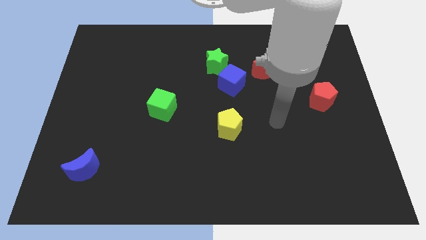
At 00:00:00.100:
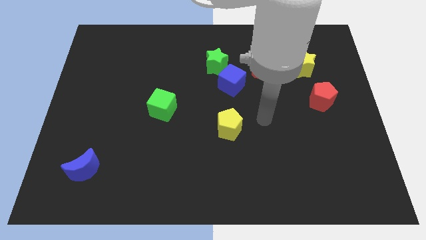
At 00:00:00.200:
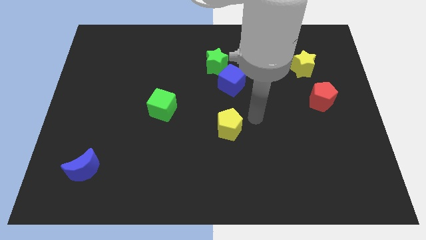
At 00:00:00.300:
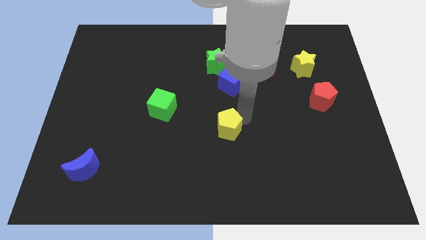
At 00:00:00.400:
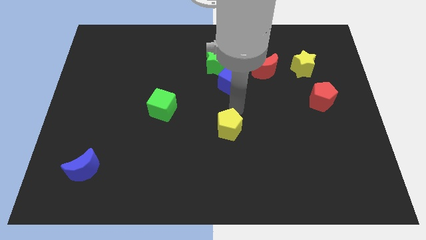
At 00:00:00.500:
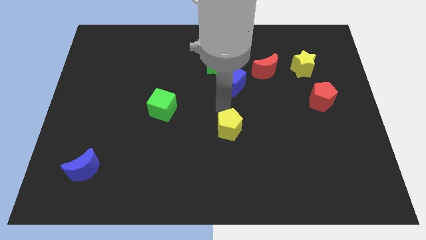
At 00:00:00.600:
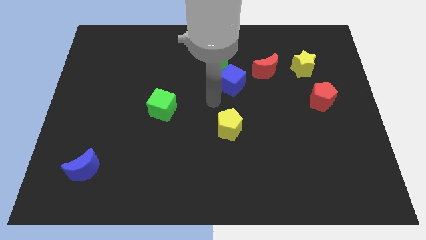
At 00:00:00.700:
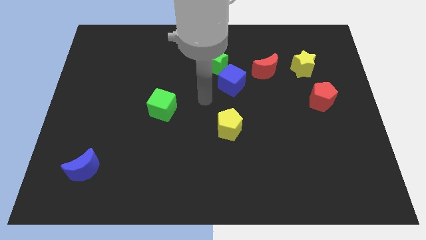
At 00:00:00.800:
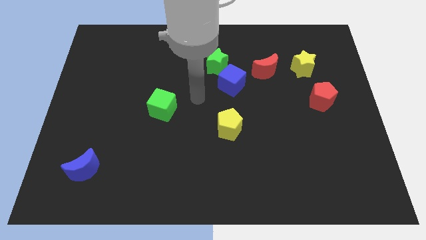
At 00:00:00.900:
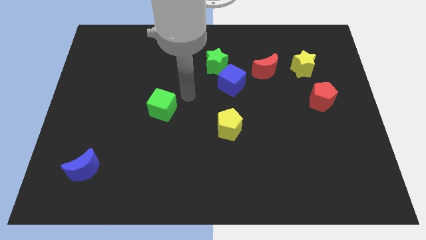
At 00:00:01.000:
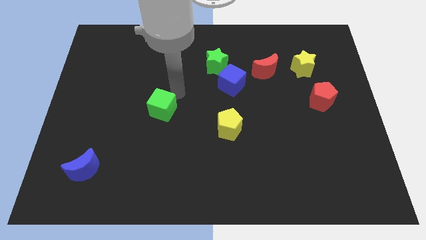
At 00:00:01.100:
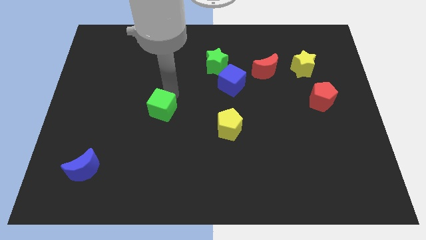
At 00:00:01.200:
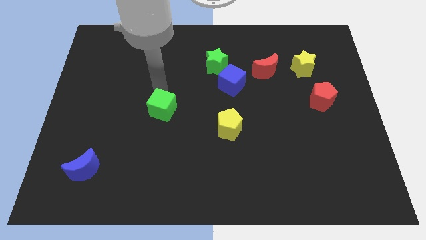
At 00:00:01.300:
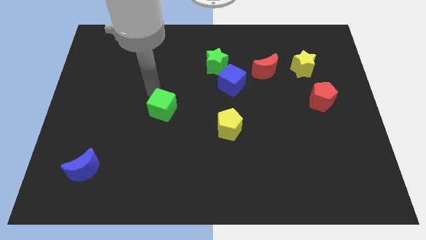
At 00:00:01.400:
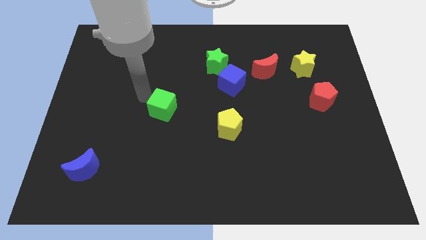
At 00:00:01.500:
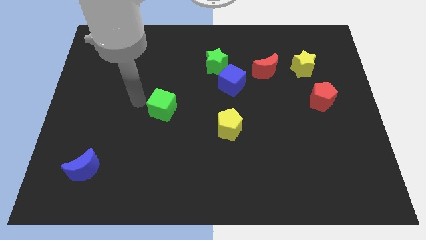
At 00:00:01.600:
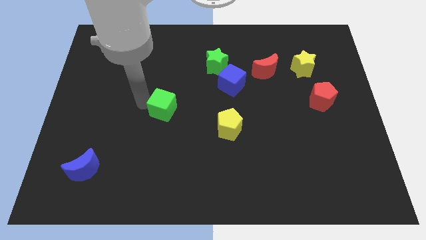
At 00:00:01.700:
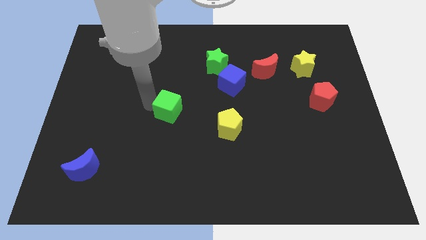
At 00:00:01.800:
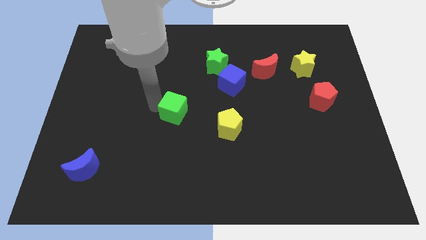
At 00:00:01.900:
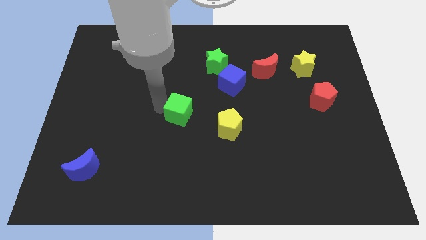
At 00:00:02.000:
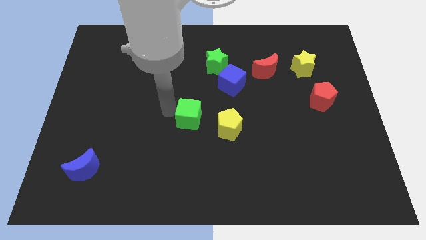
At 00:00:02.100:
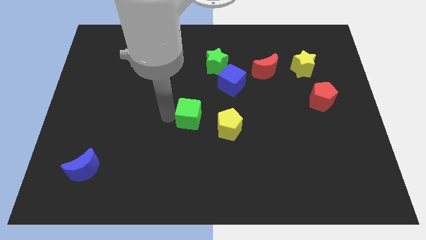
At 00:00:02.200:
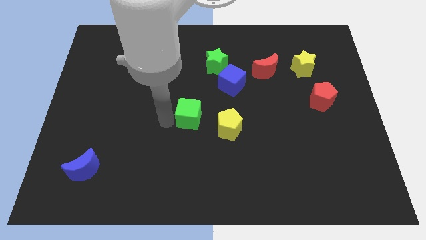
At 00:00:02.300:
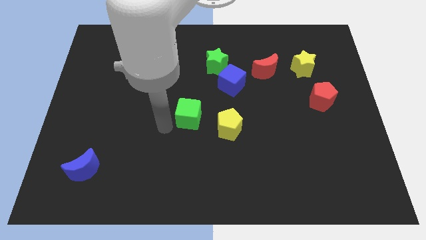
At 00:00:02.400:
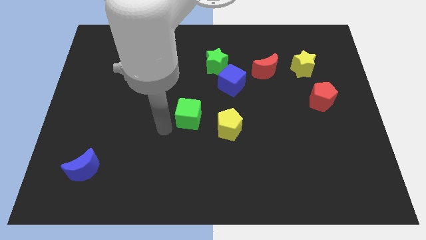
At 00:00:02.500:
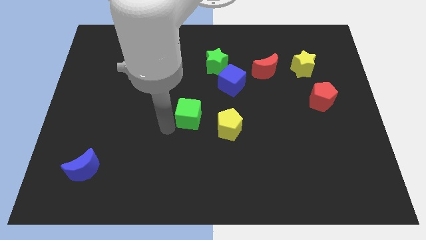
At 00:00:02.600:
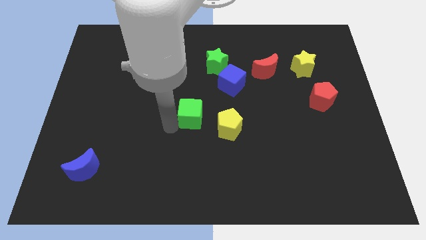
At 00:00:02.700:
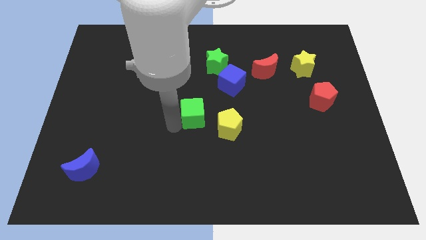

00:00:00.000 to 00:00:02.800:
move the green cube right slightly

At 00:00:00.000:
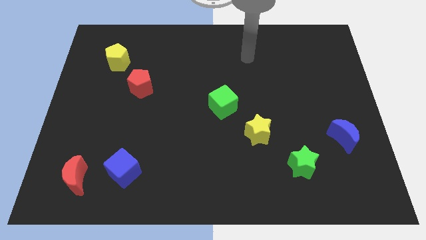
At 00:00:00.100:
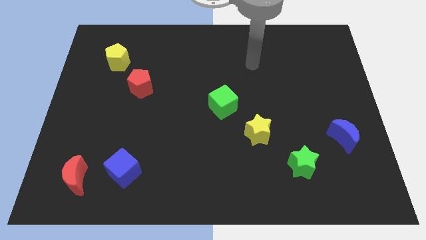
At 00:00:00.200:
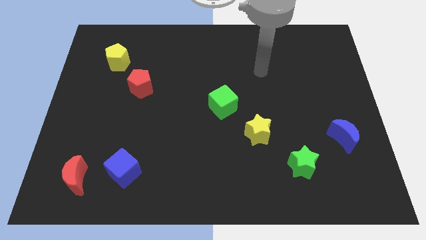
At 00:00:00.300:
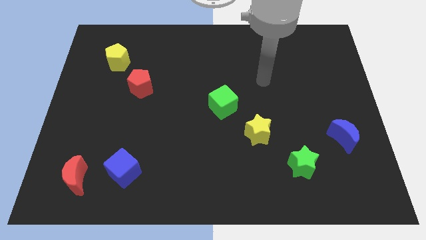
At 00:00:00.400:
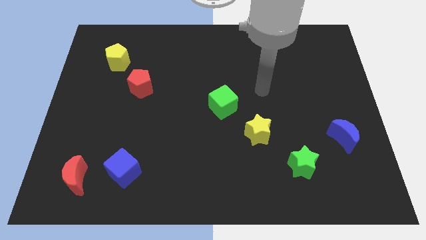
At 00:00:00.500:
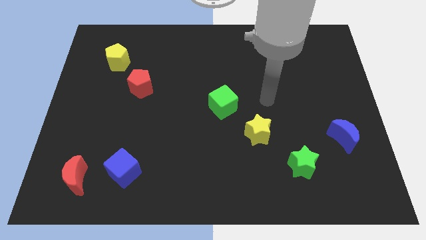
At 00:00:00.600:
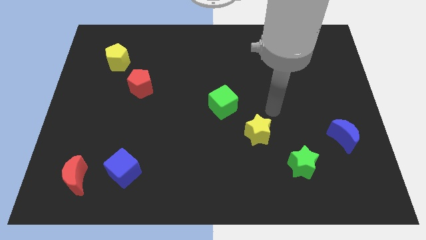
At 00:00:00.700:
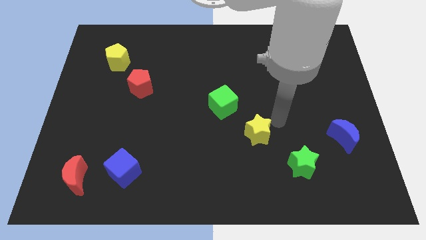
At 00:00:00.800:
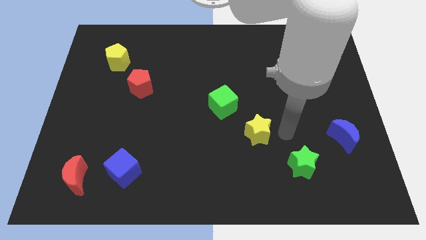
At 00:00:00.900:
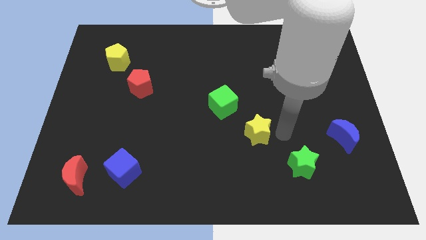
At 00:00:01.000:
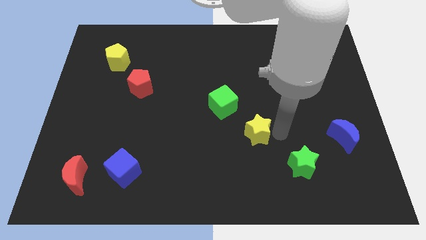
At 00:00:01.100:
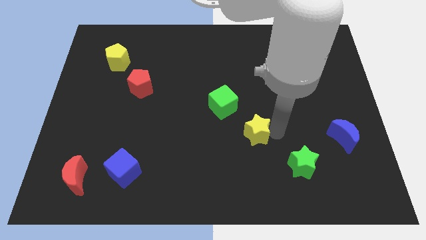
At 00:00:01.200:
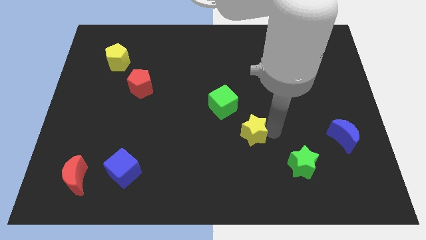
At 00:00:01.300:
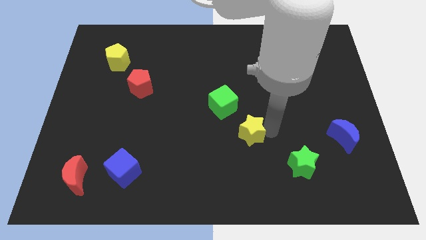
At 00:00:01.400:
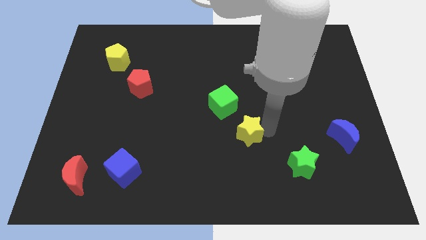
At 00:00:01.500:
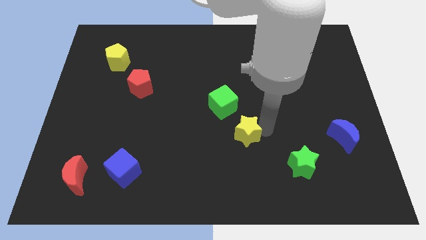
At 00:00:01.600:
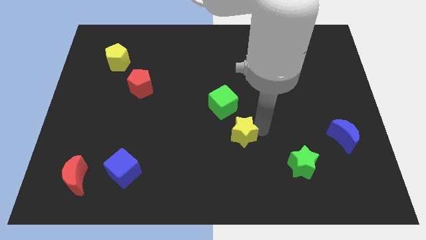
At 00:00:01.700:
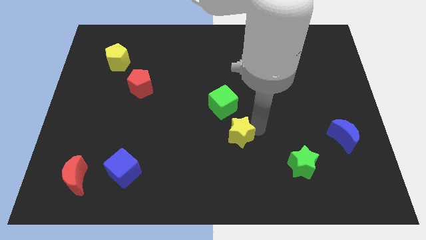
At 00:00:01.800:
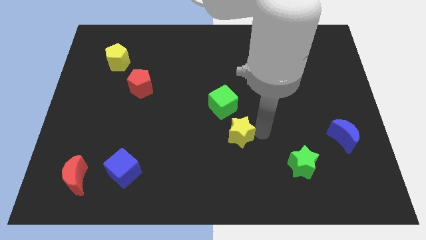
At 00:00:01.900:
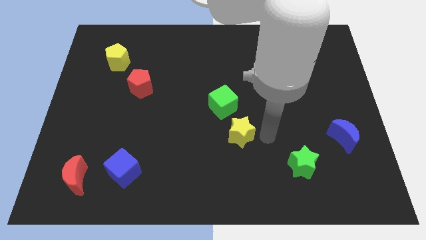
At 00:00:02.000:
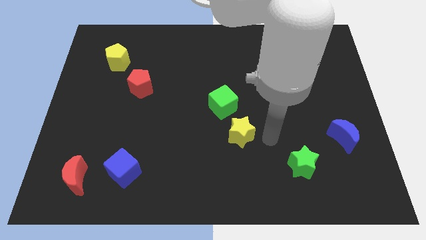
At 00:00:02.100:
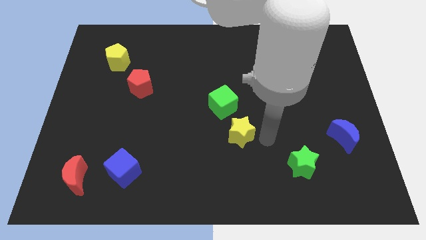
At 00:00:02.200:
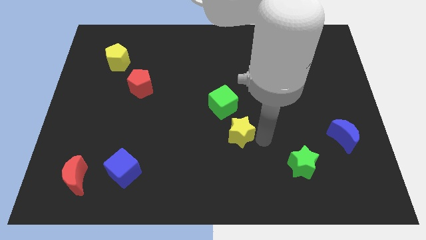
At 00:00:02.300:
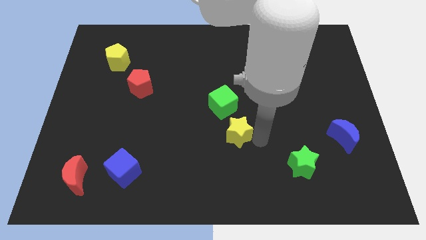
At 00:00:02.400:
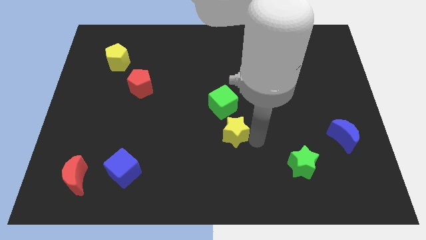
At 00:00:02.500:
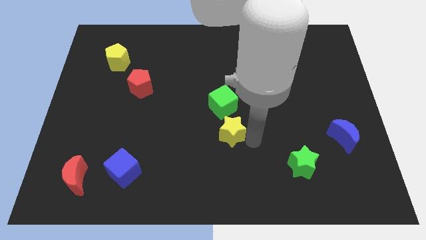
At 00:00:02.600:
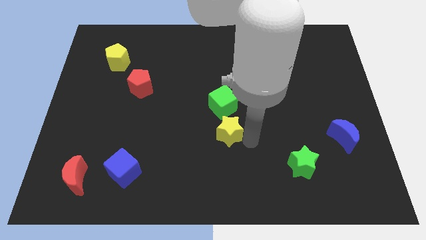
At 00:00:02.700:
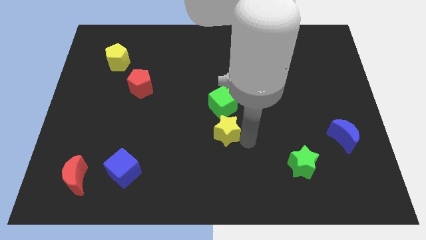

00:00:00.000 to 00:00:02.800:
slightly push the yellow star to the left

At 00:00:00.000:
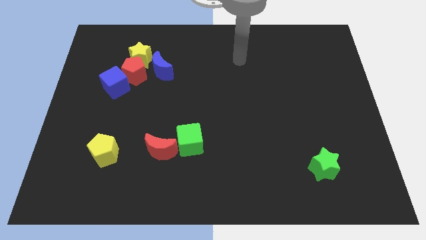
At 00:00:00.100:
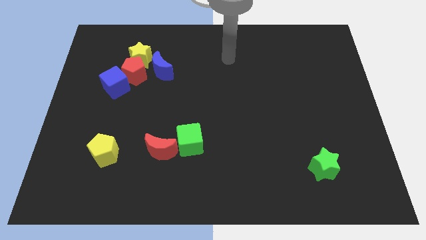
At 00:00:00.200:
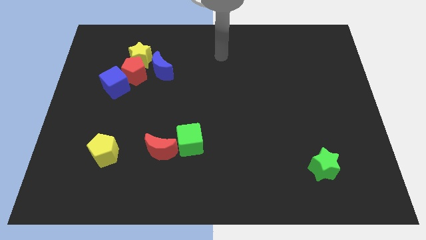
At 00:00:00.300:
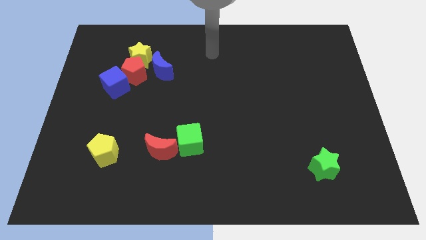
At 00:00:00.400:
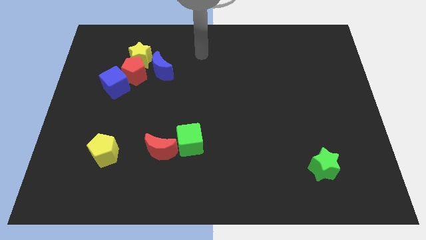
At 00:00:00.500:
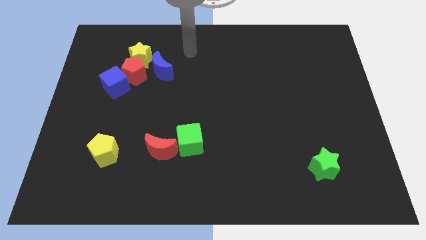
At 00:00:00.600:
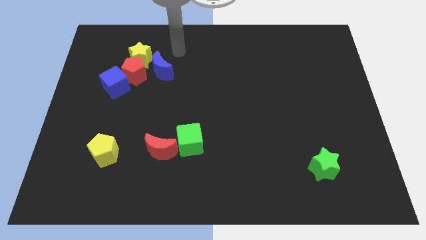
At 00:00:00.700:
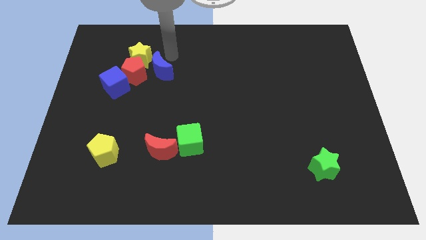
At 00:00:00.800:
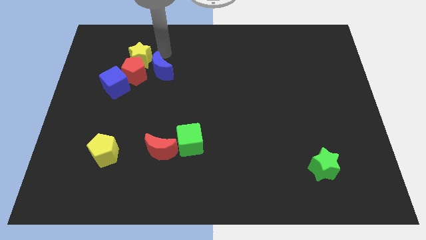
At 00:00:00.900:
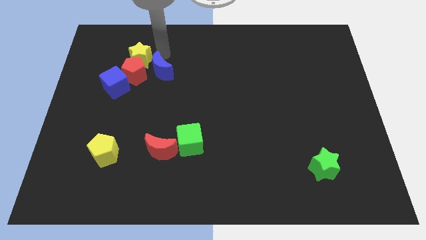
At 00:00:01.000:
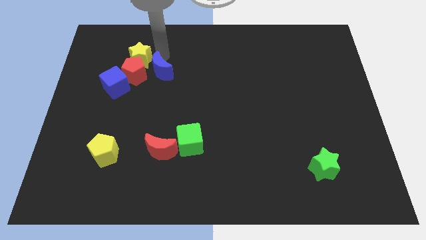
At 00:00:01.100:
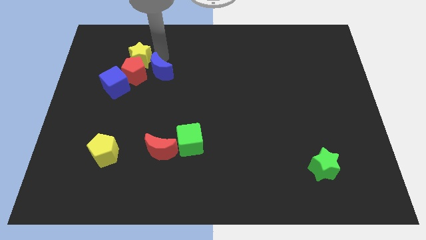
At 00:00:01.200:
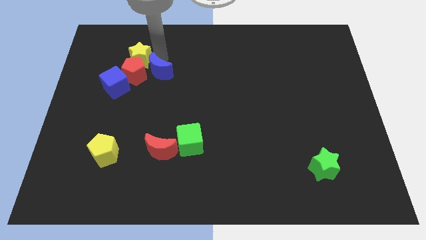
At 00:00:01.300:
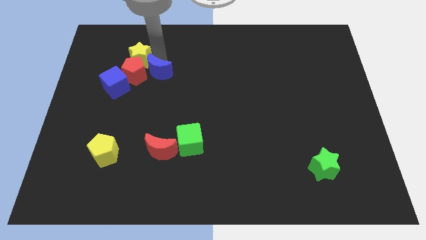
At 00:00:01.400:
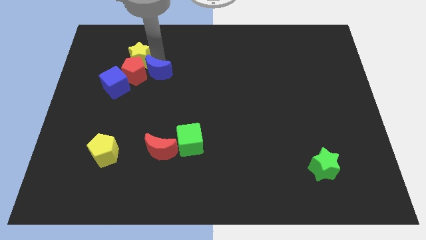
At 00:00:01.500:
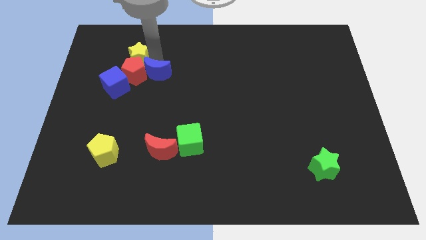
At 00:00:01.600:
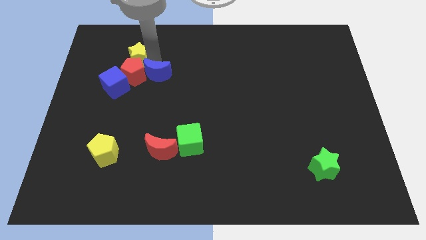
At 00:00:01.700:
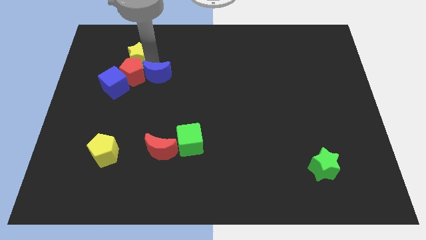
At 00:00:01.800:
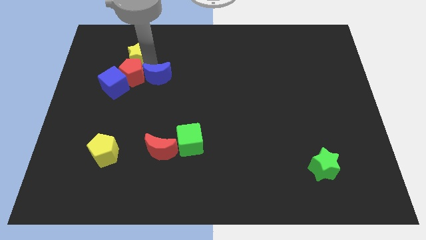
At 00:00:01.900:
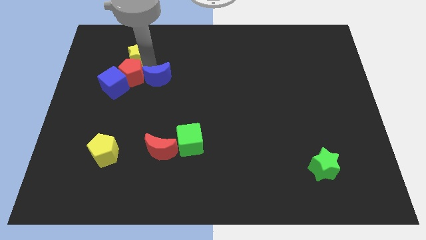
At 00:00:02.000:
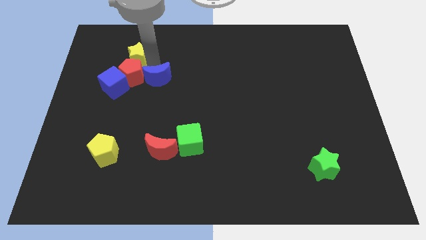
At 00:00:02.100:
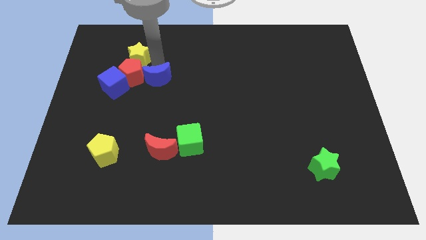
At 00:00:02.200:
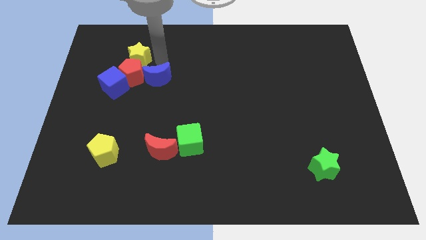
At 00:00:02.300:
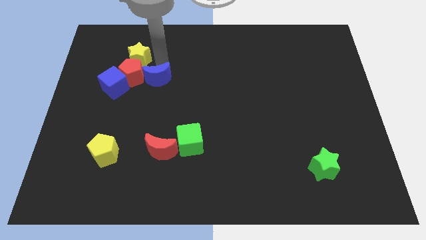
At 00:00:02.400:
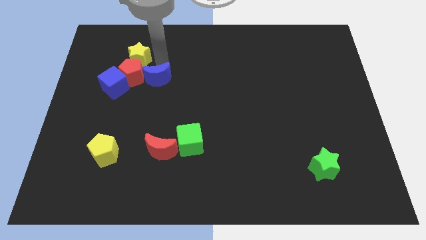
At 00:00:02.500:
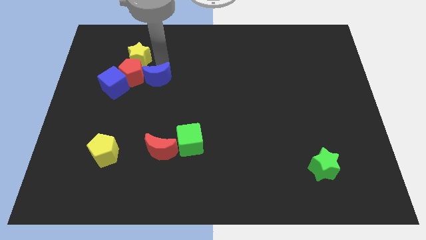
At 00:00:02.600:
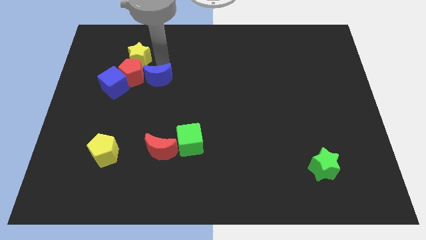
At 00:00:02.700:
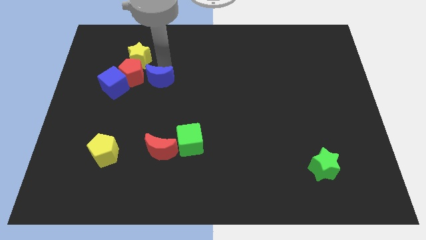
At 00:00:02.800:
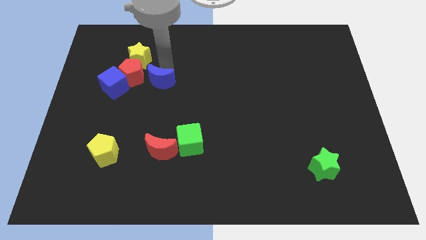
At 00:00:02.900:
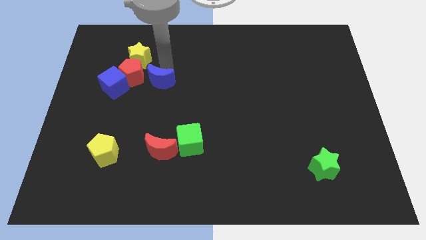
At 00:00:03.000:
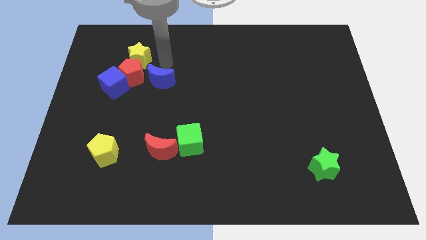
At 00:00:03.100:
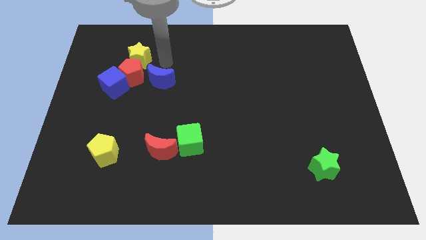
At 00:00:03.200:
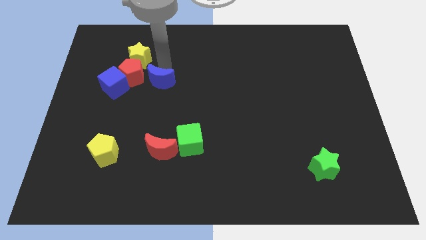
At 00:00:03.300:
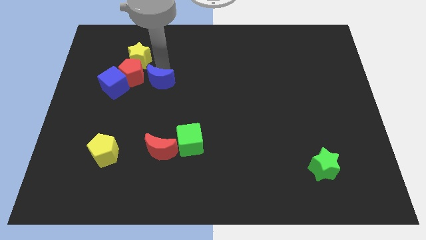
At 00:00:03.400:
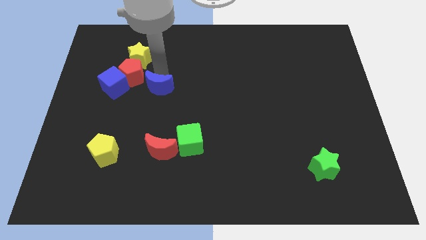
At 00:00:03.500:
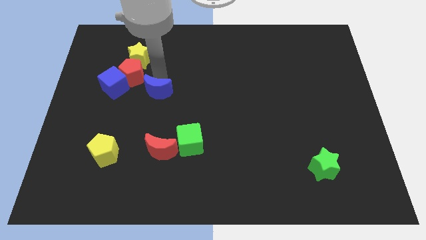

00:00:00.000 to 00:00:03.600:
slightly push the blue moon down
